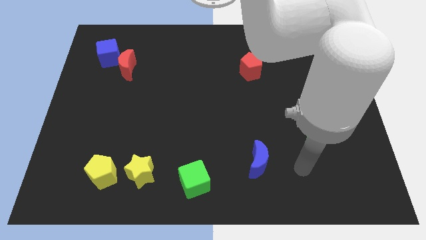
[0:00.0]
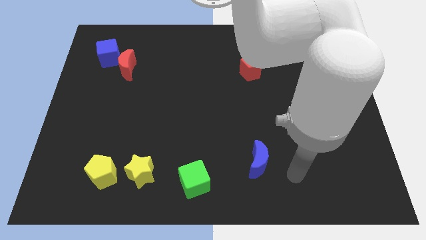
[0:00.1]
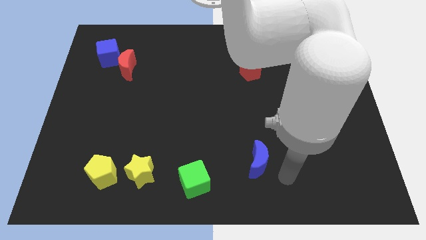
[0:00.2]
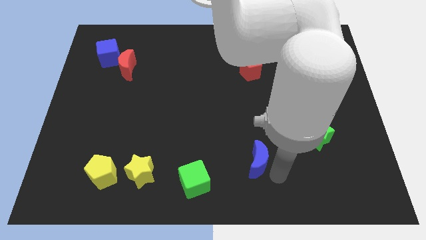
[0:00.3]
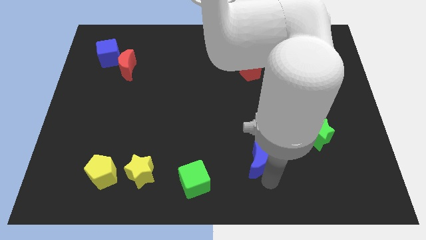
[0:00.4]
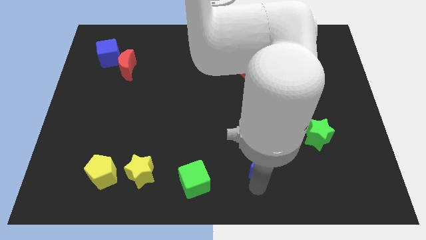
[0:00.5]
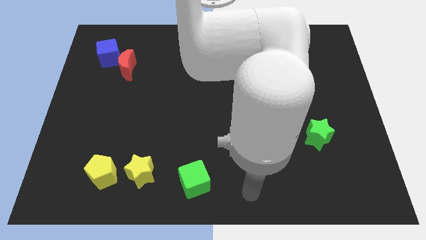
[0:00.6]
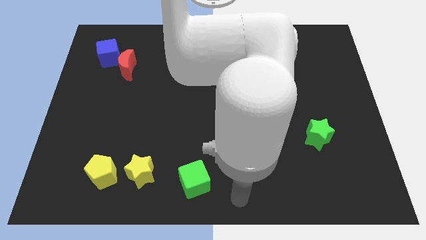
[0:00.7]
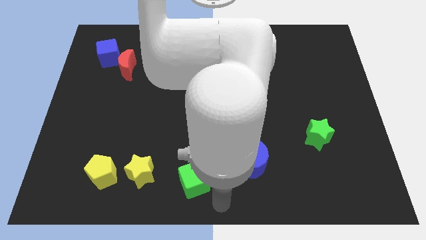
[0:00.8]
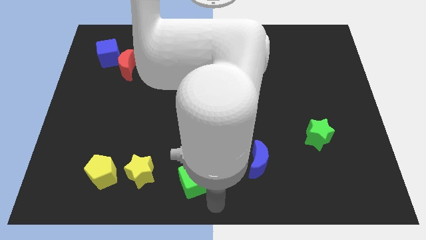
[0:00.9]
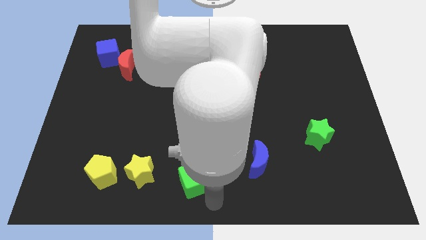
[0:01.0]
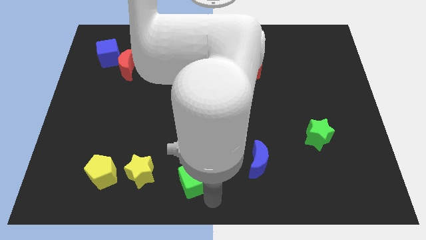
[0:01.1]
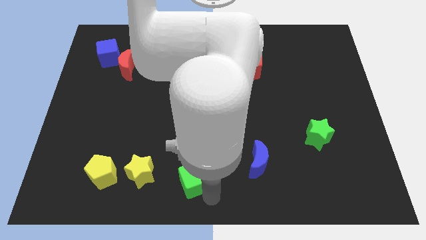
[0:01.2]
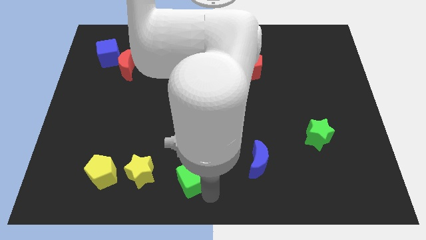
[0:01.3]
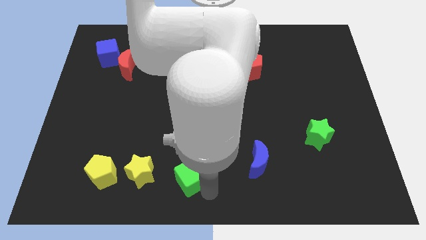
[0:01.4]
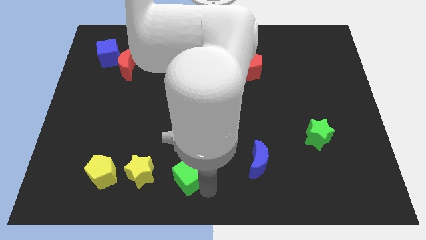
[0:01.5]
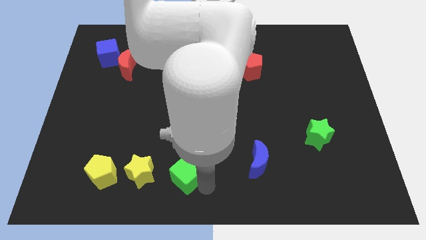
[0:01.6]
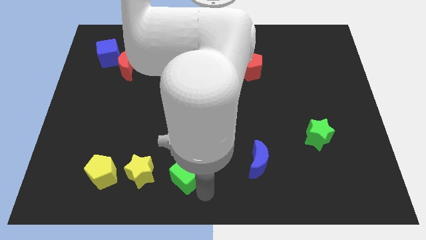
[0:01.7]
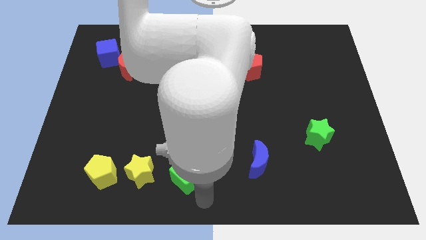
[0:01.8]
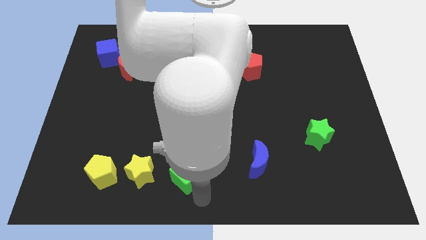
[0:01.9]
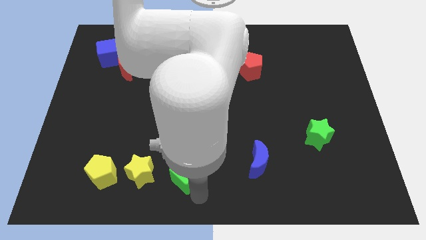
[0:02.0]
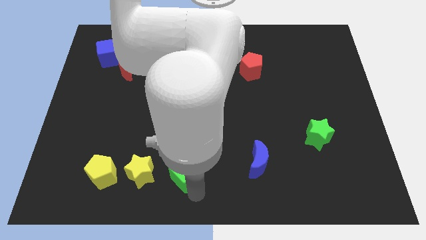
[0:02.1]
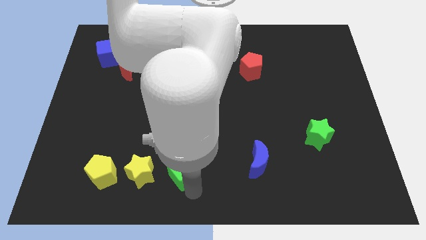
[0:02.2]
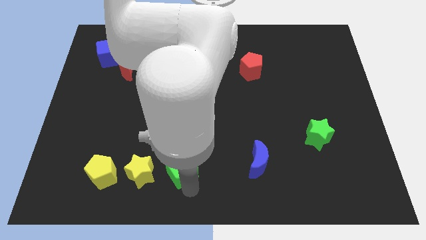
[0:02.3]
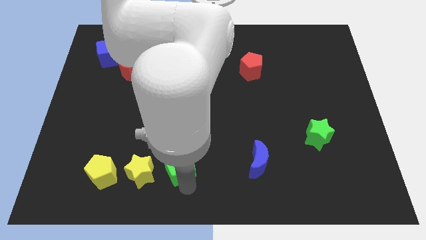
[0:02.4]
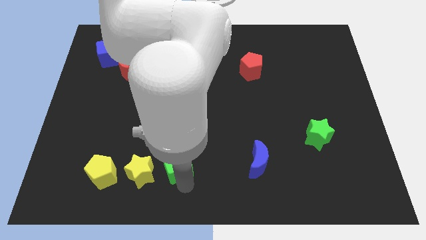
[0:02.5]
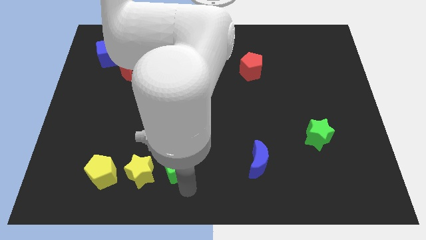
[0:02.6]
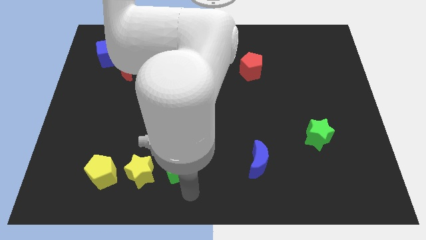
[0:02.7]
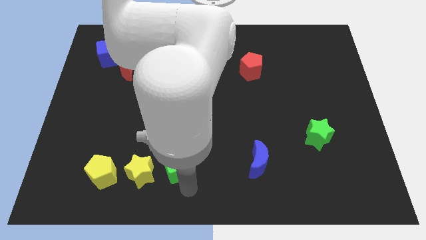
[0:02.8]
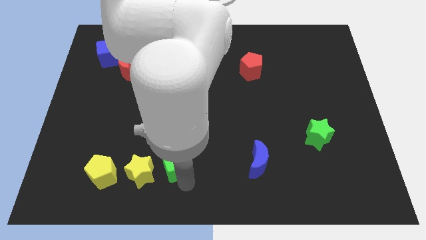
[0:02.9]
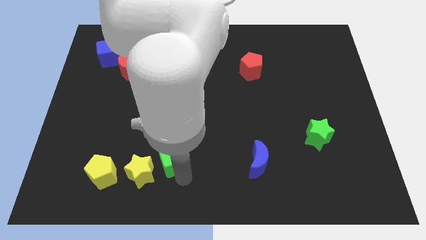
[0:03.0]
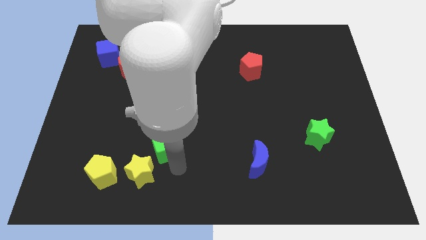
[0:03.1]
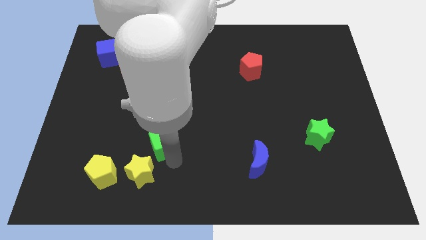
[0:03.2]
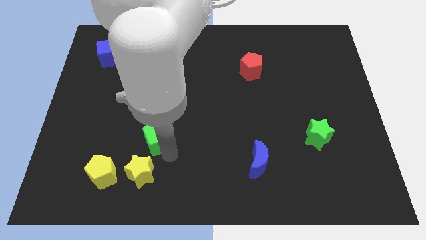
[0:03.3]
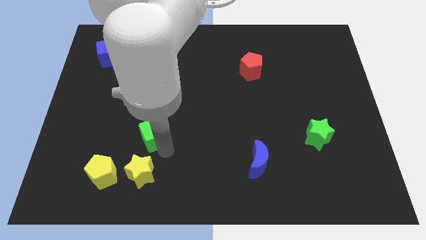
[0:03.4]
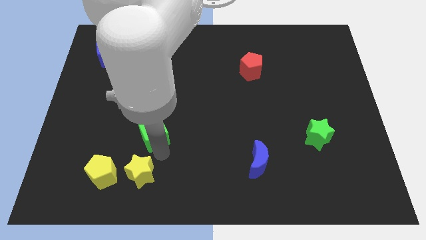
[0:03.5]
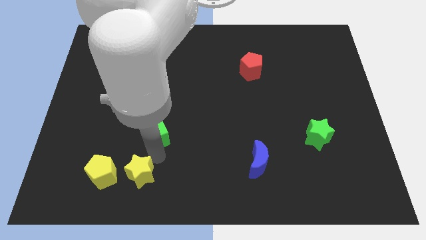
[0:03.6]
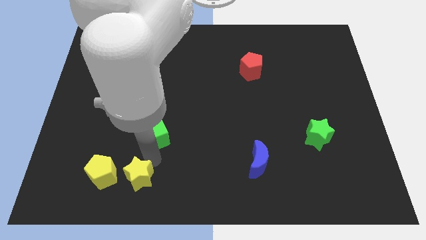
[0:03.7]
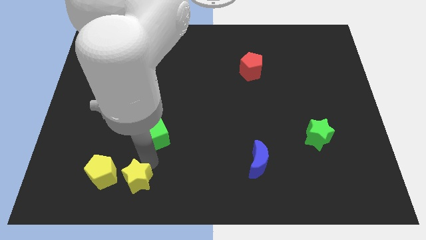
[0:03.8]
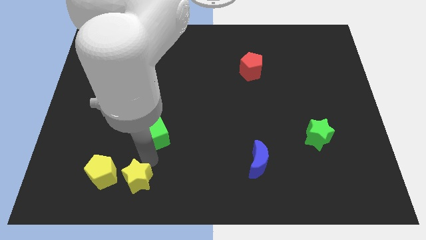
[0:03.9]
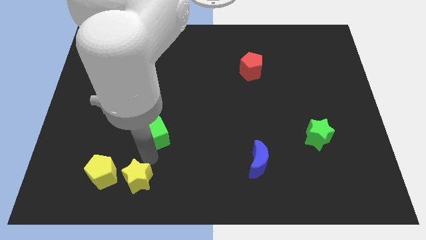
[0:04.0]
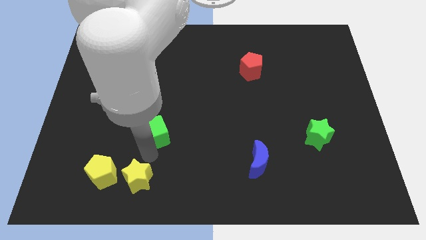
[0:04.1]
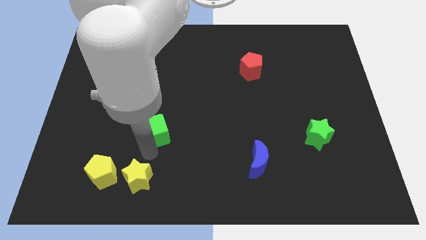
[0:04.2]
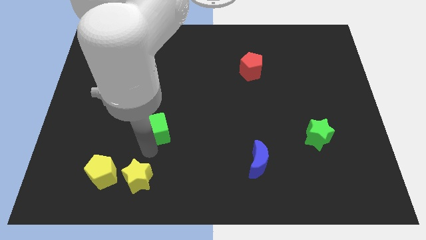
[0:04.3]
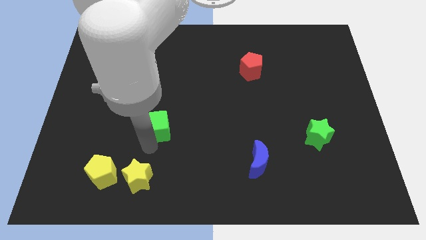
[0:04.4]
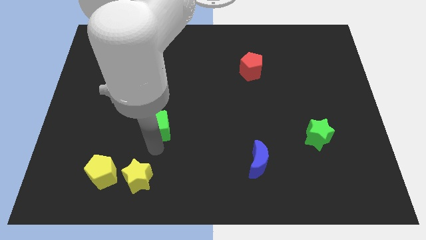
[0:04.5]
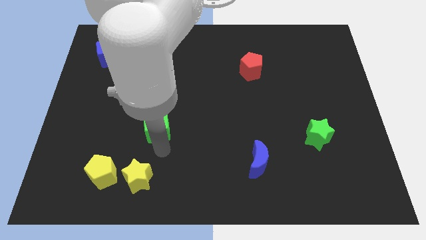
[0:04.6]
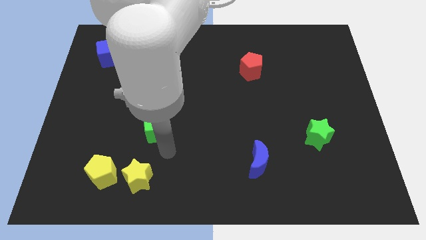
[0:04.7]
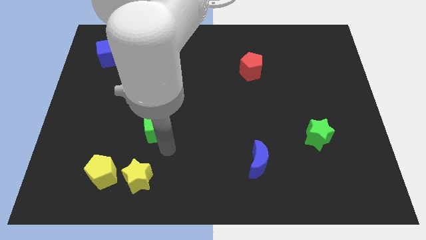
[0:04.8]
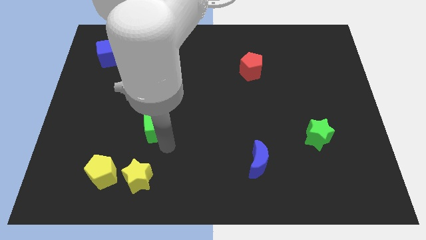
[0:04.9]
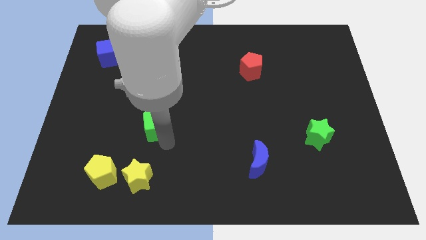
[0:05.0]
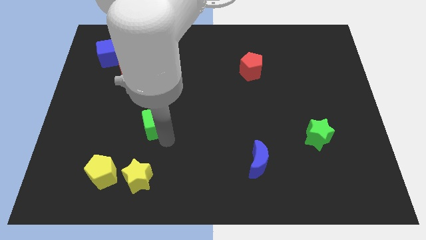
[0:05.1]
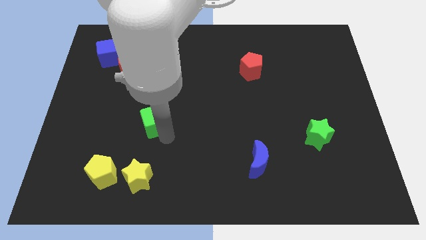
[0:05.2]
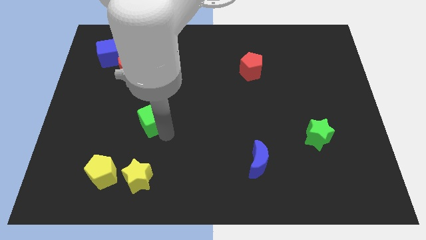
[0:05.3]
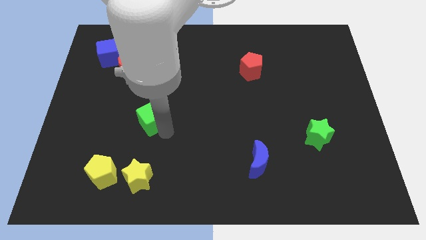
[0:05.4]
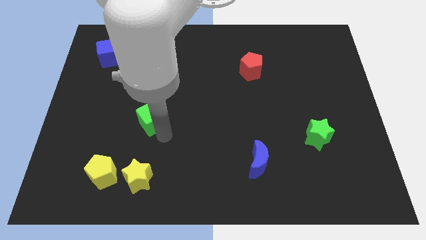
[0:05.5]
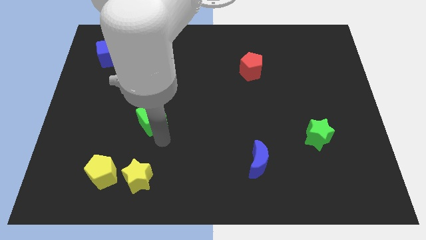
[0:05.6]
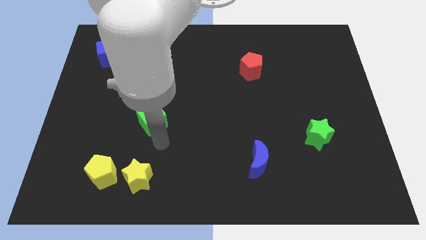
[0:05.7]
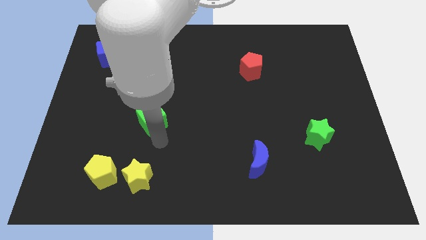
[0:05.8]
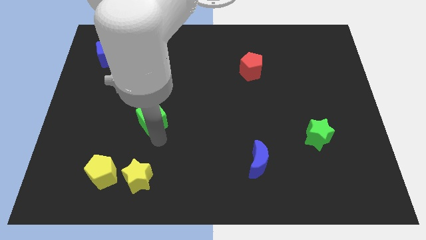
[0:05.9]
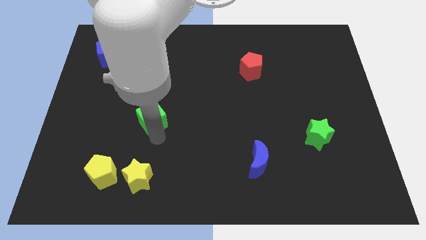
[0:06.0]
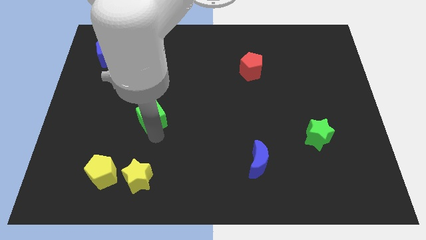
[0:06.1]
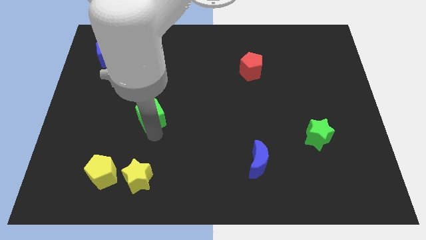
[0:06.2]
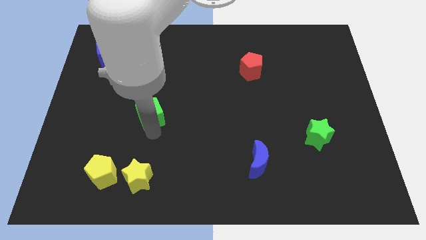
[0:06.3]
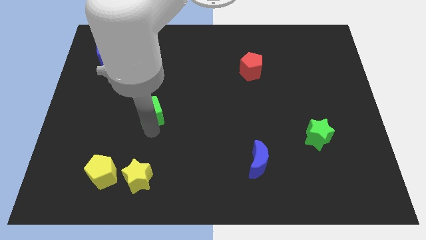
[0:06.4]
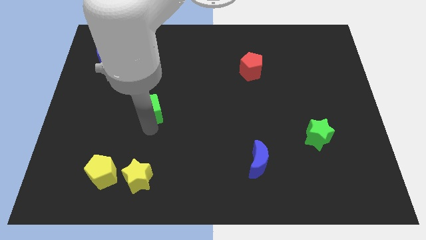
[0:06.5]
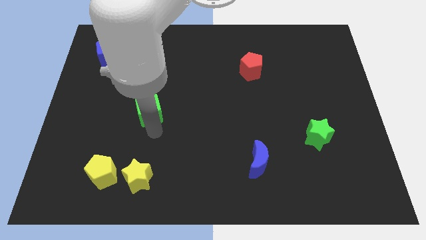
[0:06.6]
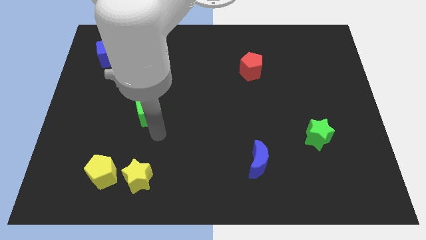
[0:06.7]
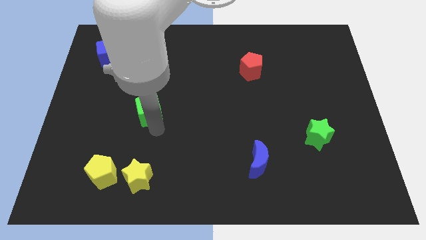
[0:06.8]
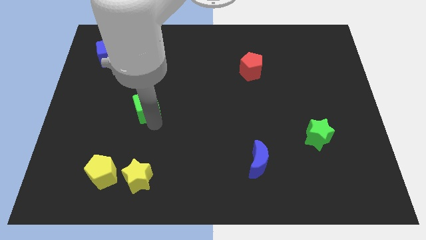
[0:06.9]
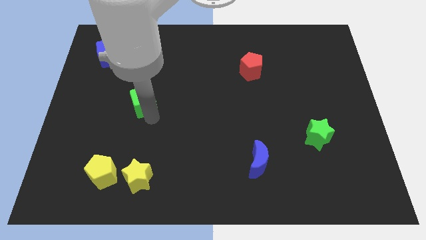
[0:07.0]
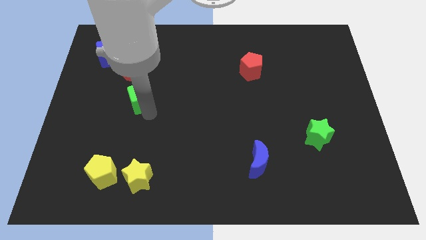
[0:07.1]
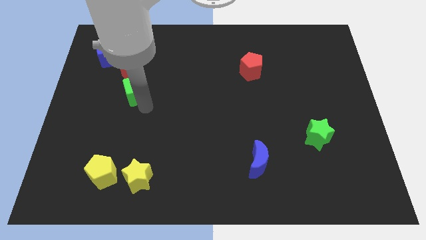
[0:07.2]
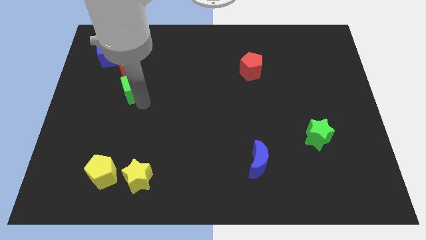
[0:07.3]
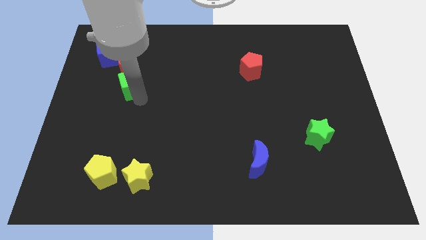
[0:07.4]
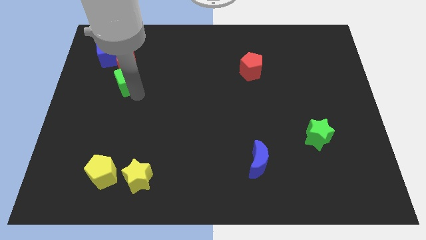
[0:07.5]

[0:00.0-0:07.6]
move the green cube to the bottom right side of the blue cube
